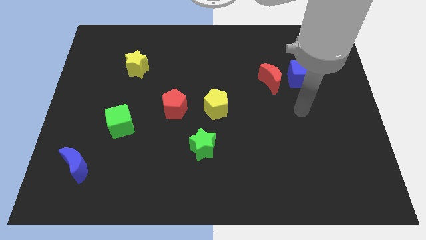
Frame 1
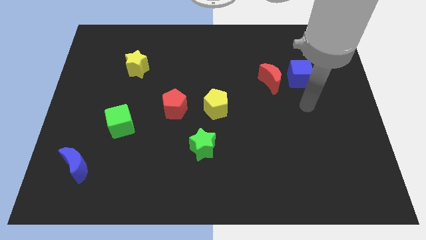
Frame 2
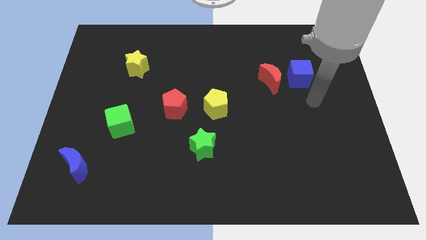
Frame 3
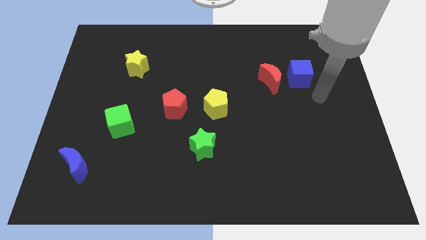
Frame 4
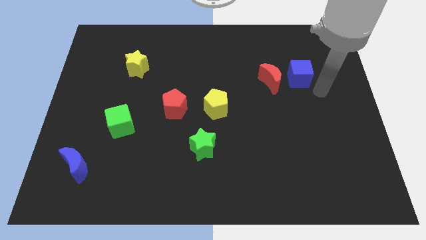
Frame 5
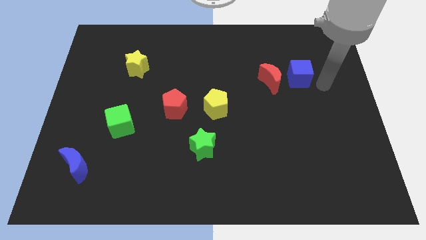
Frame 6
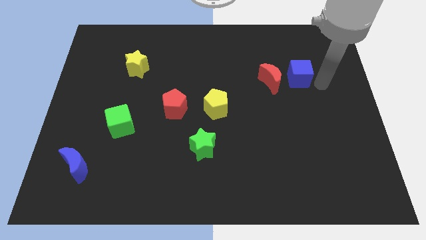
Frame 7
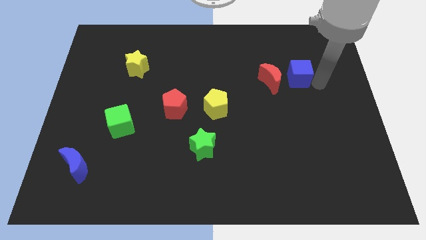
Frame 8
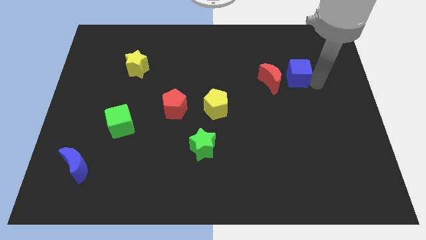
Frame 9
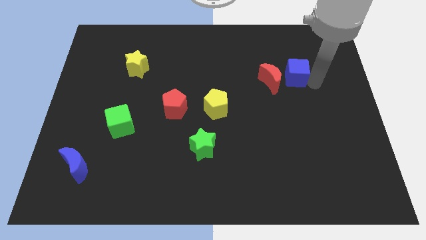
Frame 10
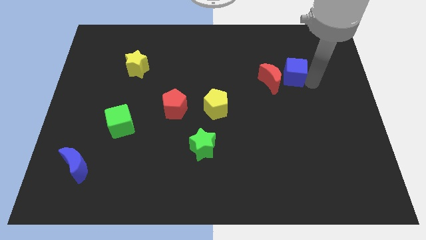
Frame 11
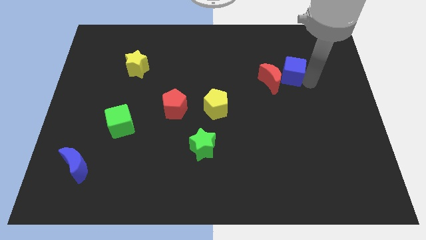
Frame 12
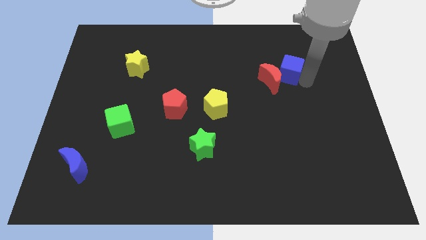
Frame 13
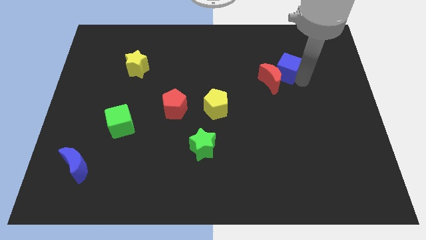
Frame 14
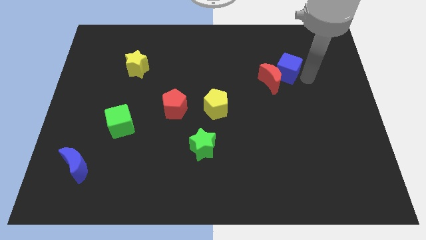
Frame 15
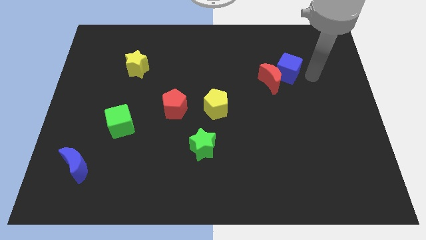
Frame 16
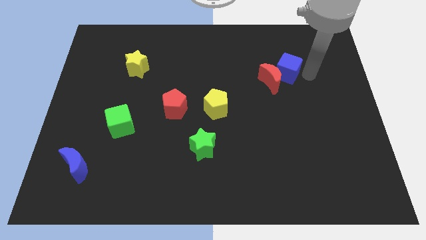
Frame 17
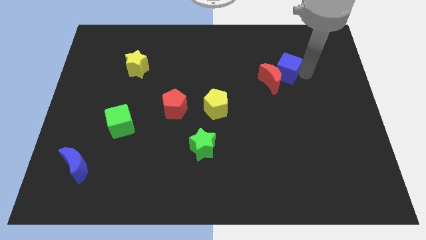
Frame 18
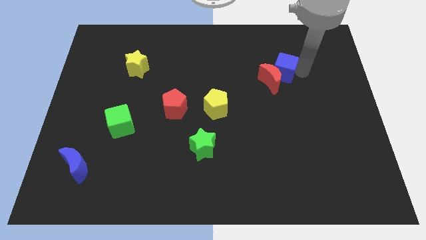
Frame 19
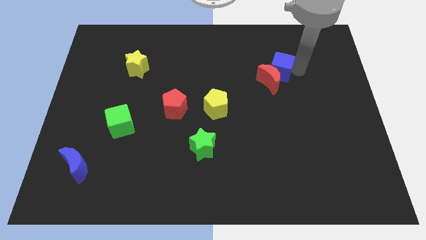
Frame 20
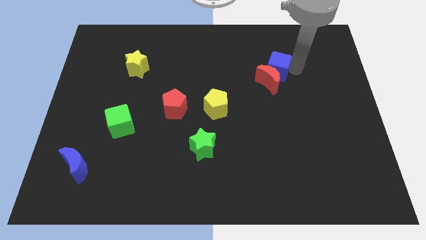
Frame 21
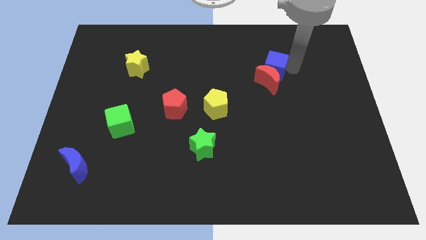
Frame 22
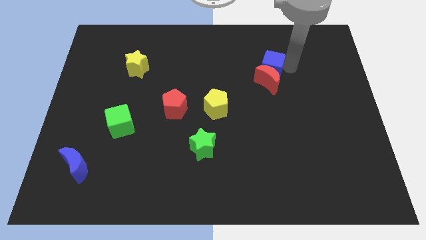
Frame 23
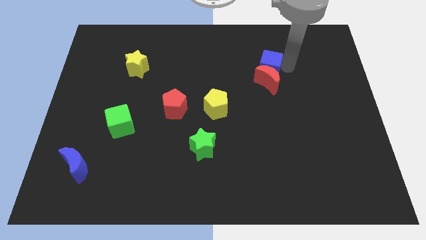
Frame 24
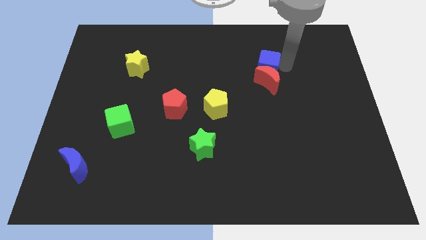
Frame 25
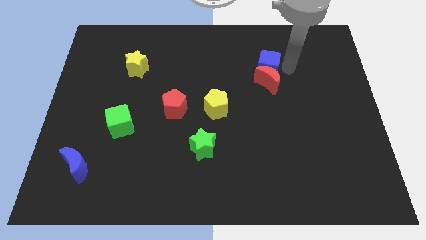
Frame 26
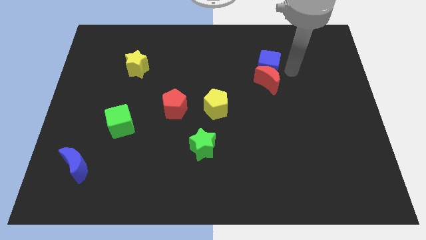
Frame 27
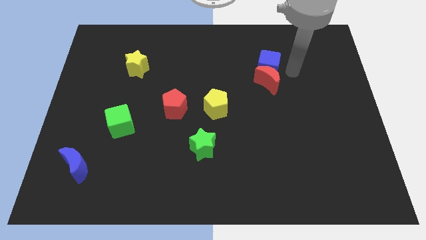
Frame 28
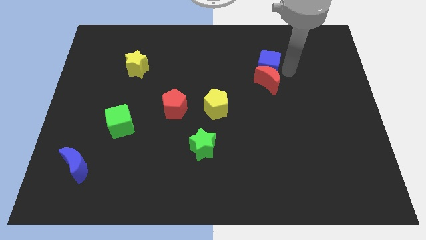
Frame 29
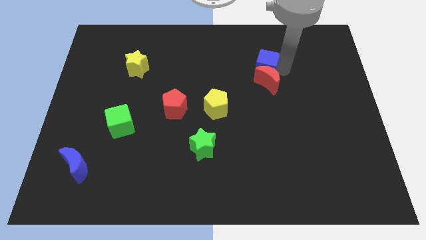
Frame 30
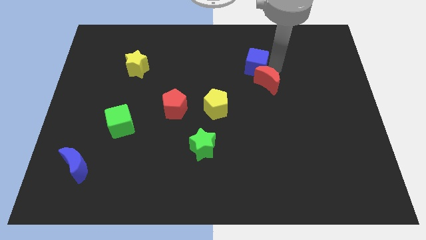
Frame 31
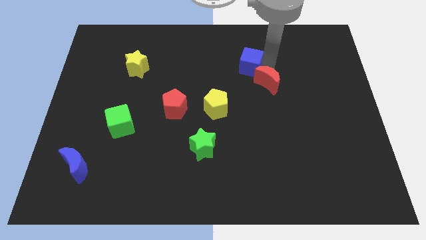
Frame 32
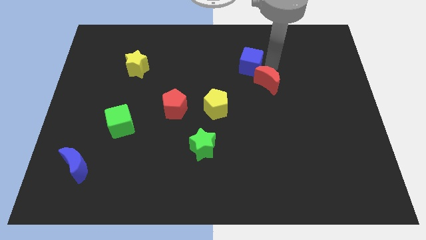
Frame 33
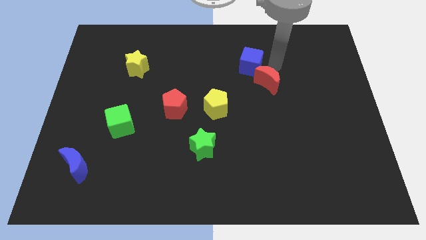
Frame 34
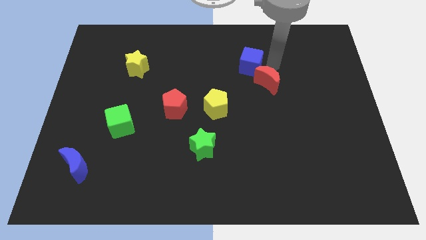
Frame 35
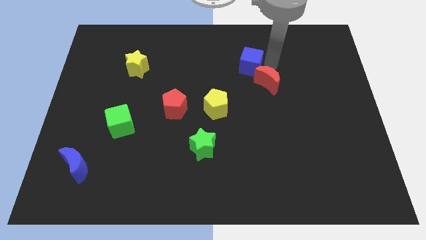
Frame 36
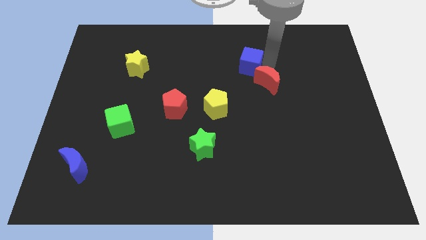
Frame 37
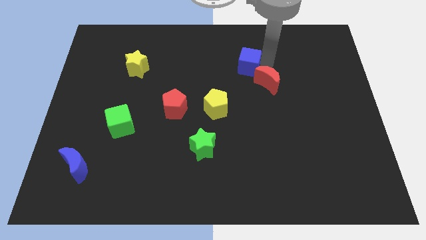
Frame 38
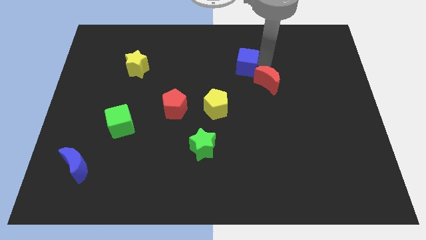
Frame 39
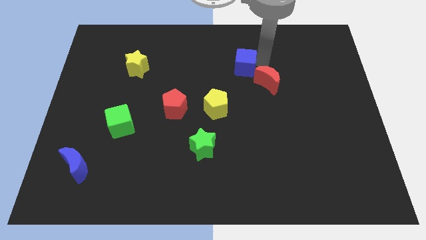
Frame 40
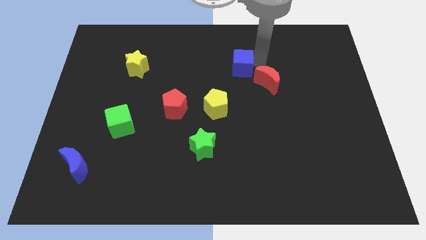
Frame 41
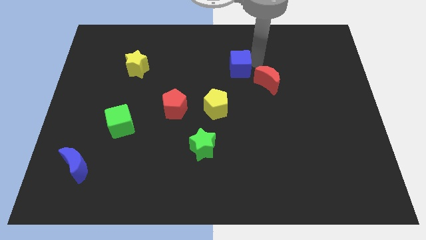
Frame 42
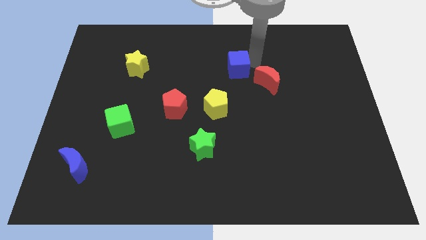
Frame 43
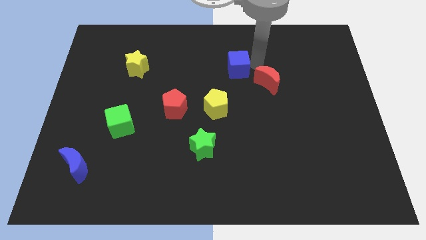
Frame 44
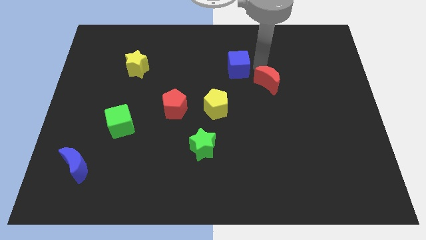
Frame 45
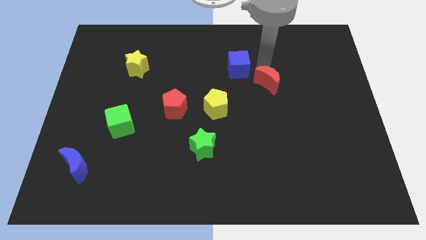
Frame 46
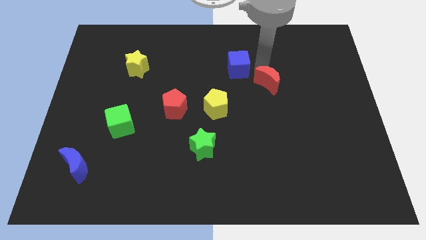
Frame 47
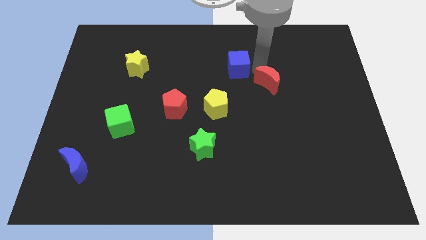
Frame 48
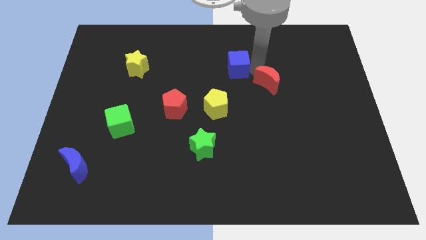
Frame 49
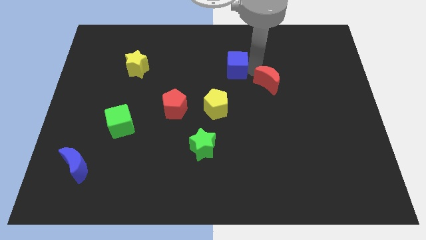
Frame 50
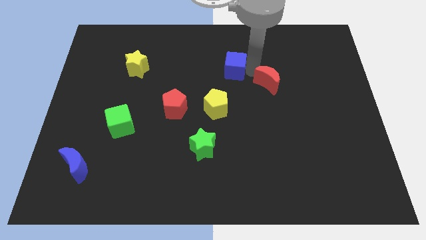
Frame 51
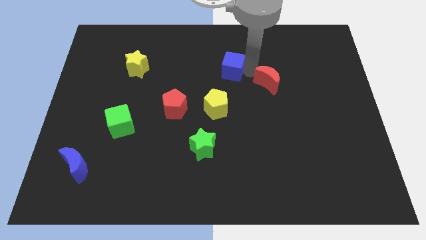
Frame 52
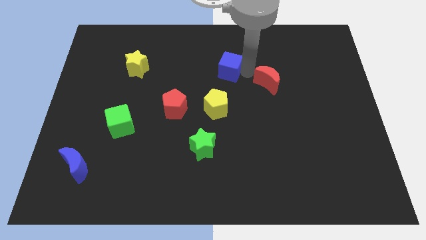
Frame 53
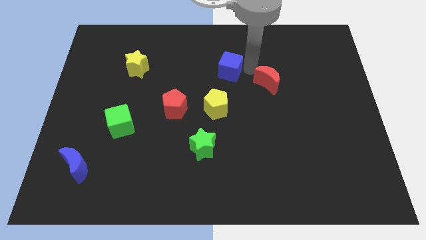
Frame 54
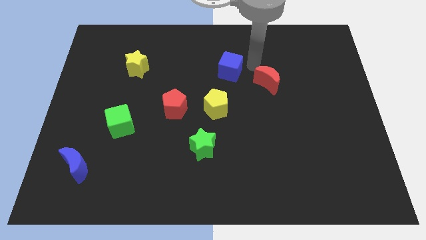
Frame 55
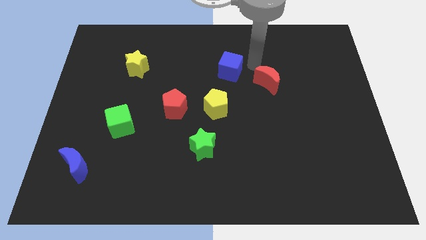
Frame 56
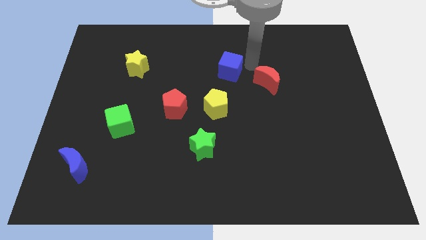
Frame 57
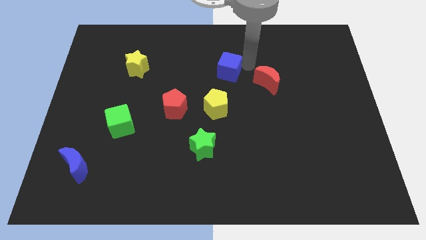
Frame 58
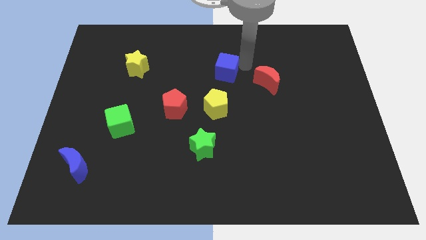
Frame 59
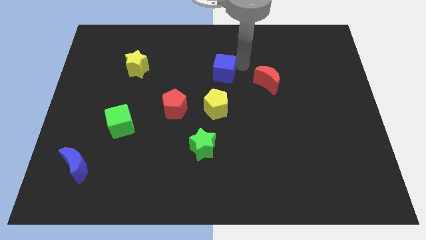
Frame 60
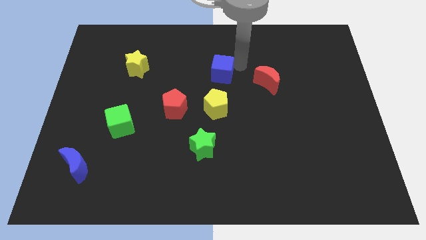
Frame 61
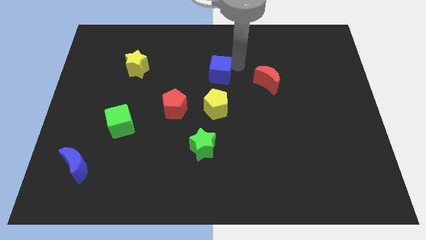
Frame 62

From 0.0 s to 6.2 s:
move the blue cube to the left

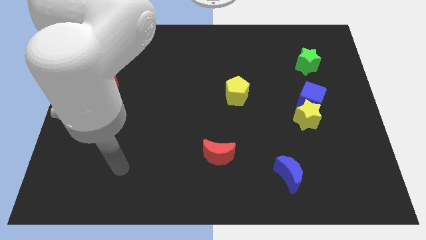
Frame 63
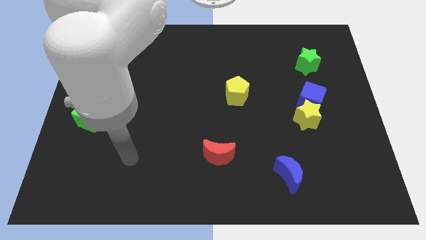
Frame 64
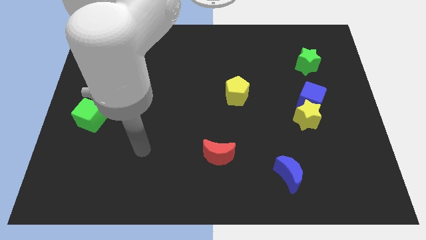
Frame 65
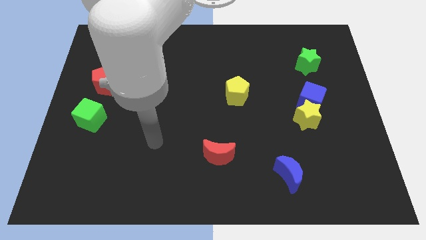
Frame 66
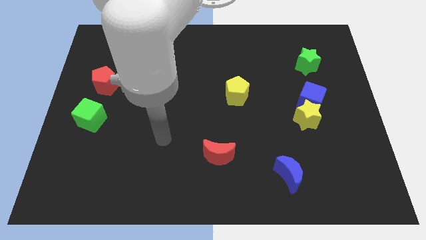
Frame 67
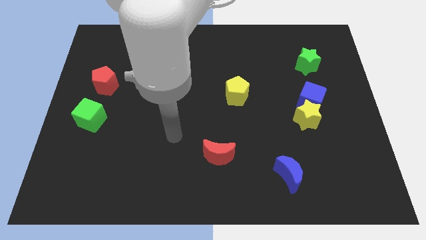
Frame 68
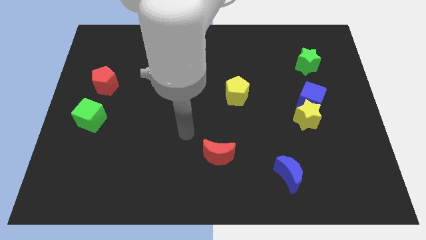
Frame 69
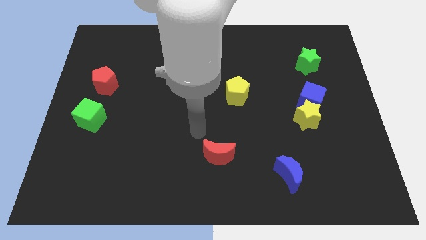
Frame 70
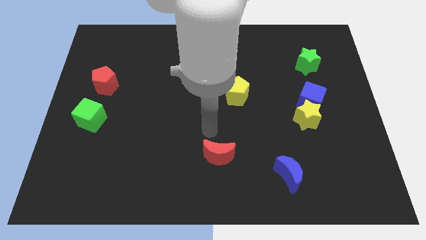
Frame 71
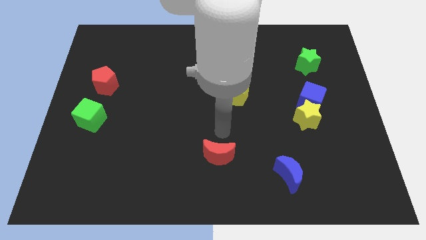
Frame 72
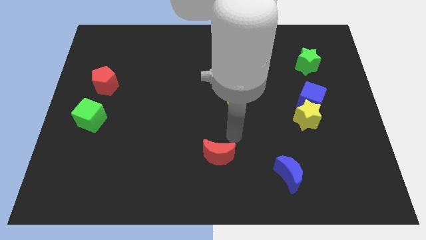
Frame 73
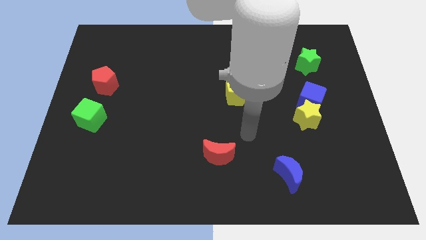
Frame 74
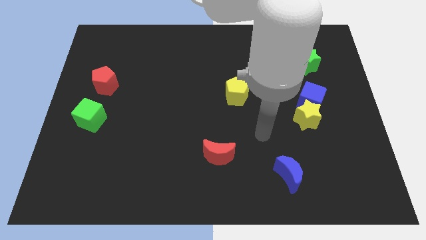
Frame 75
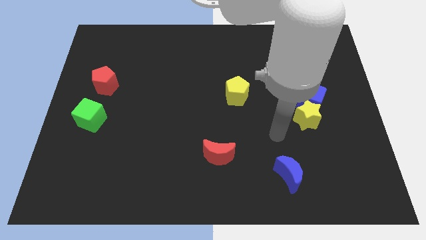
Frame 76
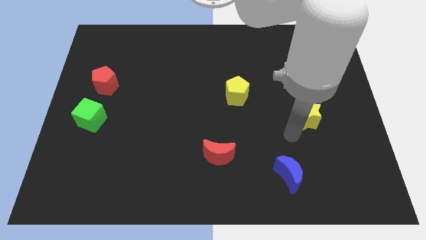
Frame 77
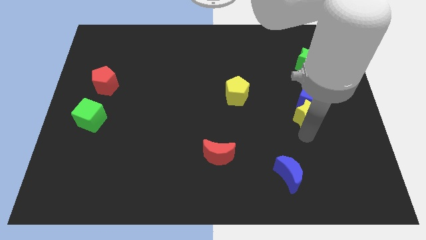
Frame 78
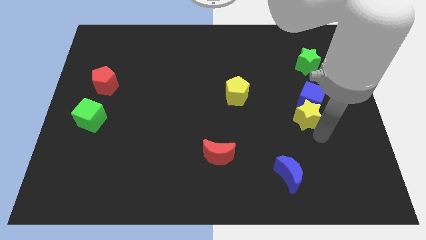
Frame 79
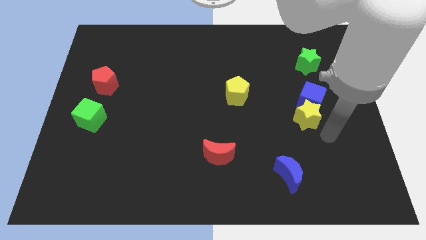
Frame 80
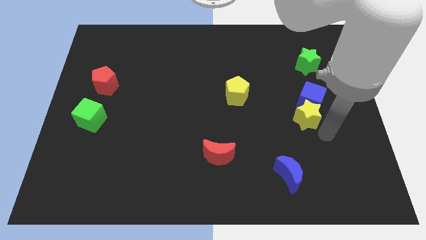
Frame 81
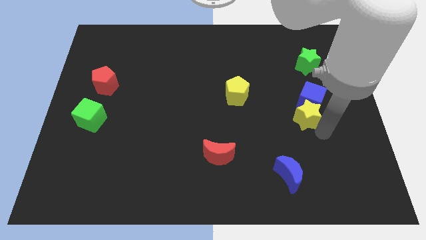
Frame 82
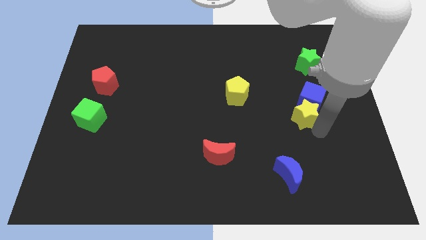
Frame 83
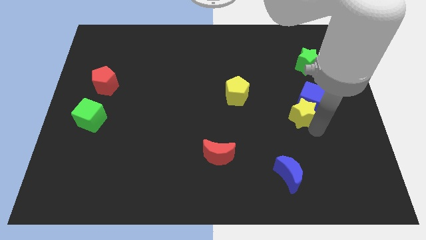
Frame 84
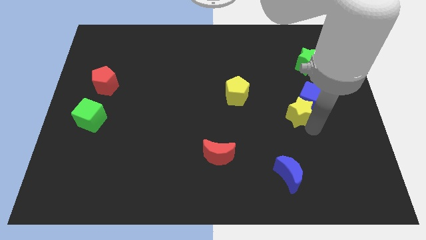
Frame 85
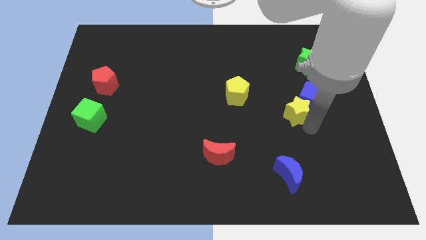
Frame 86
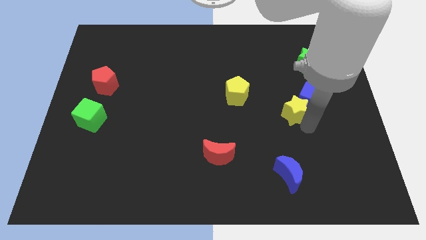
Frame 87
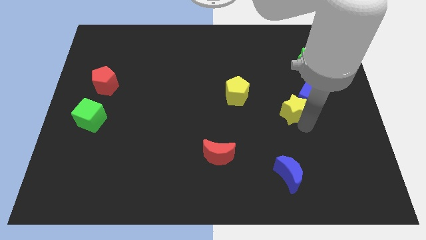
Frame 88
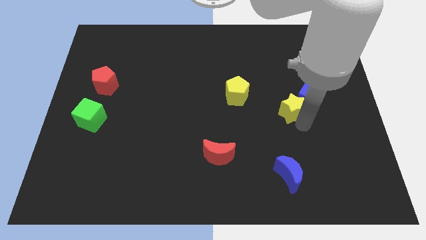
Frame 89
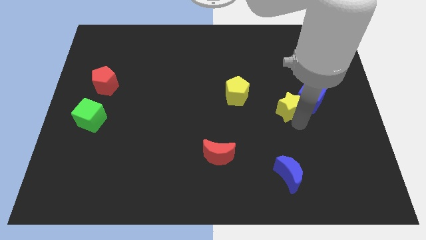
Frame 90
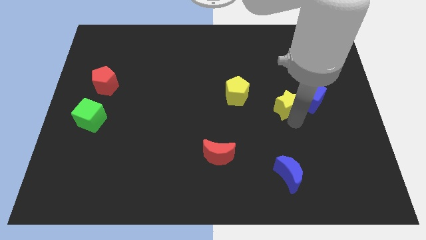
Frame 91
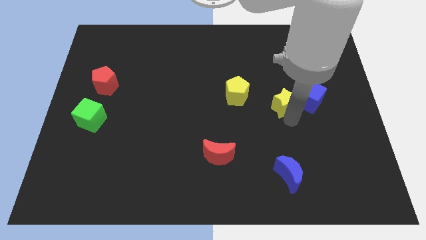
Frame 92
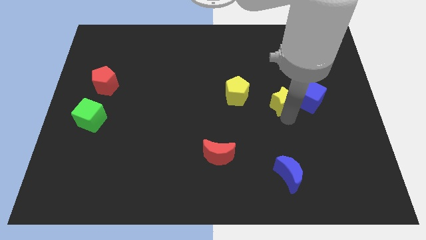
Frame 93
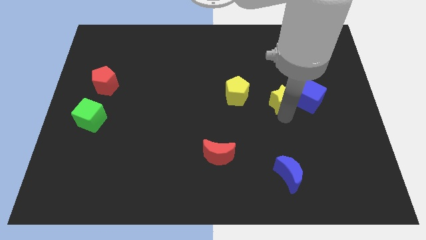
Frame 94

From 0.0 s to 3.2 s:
slightly move the yellow star upwards and to the left diagonally
